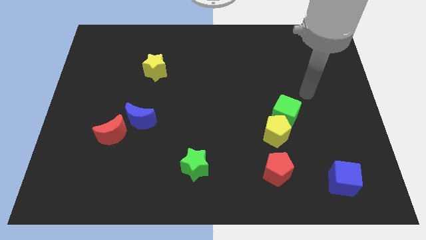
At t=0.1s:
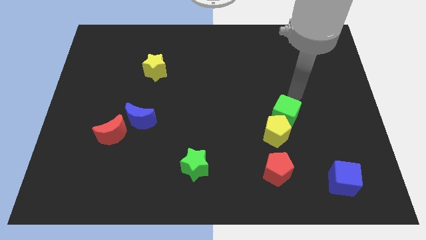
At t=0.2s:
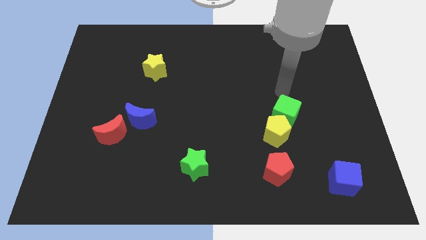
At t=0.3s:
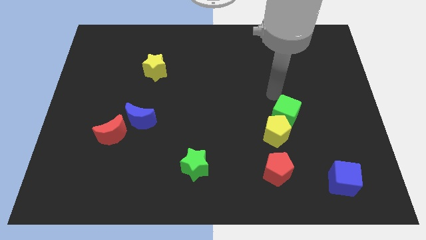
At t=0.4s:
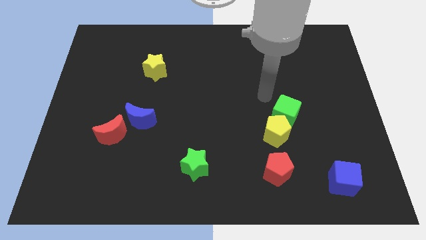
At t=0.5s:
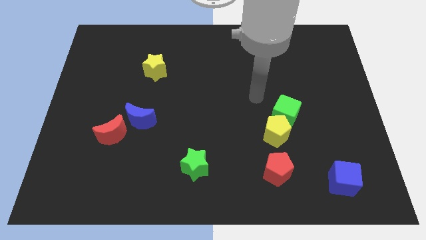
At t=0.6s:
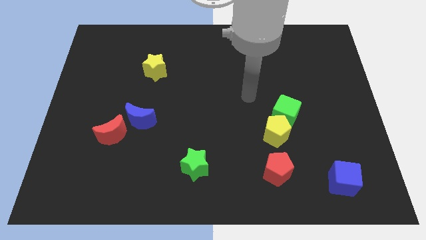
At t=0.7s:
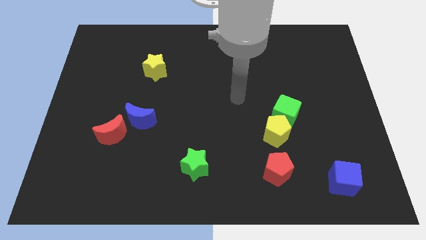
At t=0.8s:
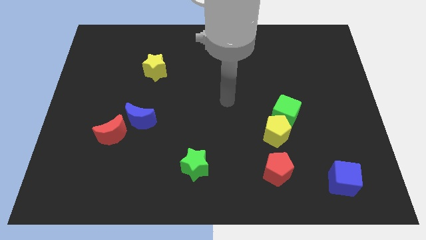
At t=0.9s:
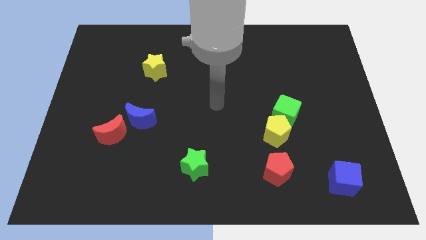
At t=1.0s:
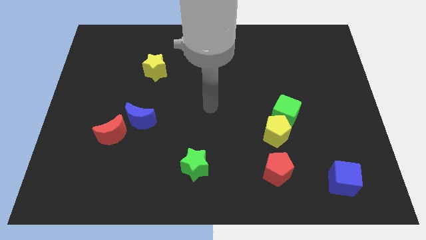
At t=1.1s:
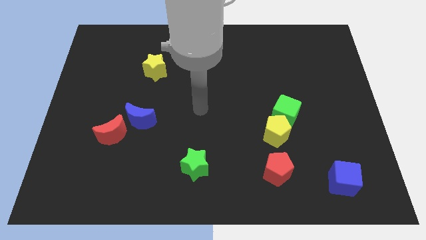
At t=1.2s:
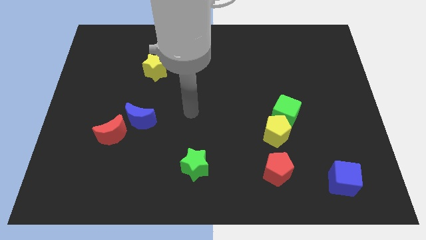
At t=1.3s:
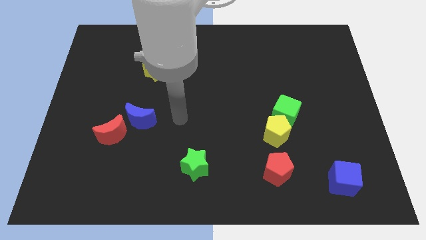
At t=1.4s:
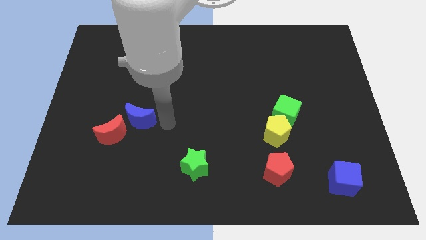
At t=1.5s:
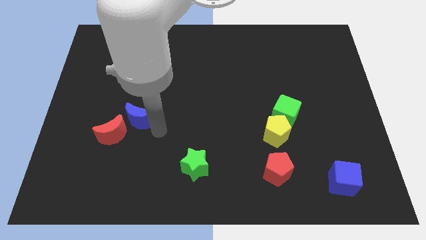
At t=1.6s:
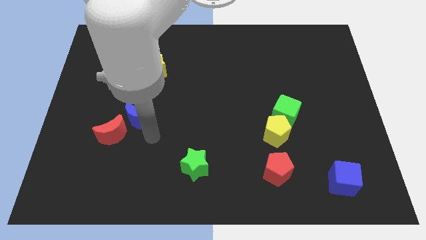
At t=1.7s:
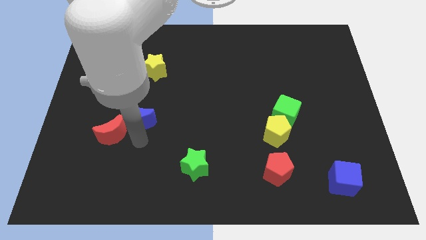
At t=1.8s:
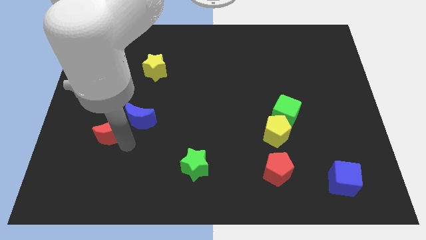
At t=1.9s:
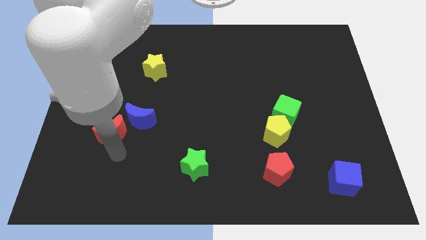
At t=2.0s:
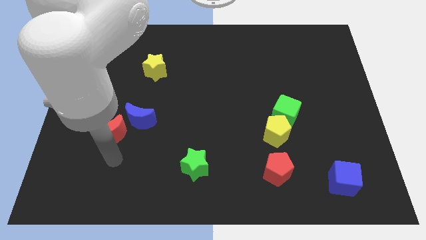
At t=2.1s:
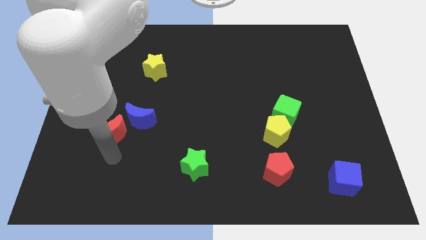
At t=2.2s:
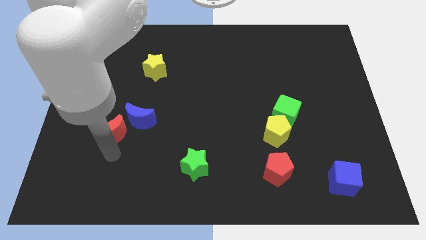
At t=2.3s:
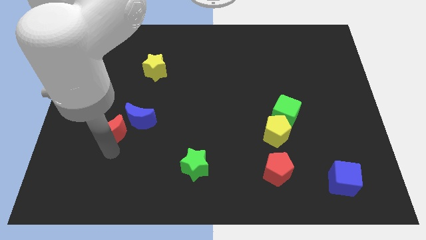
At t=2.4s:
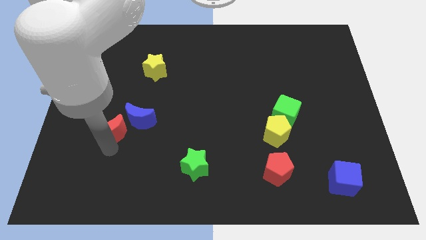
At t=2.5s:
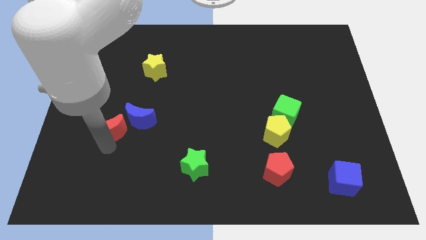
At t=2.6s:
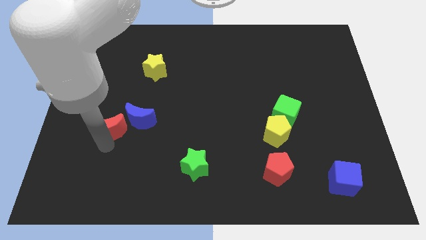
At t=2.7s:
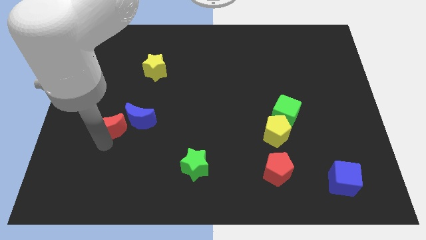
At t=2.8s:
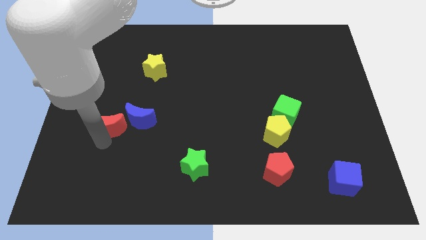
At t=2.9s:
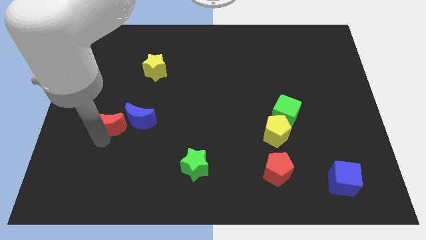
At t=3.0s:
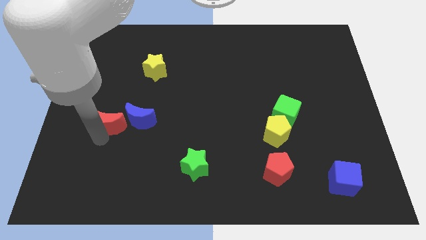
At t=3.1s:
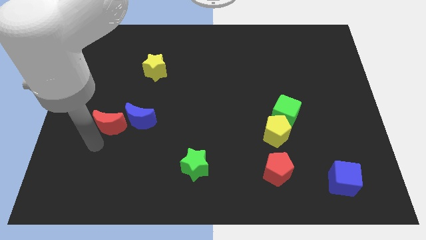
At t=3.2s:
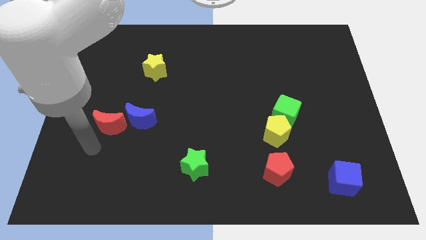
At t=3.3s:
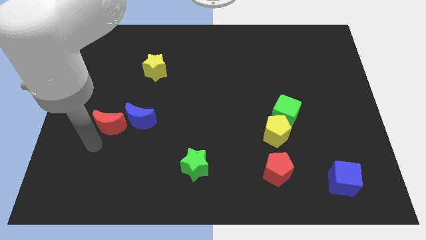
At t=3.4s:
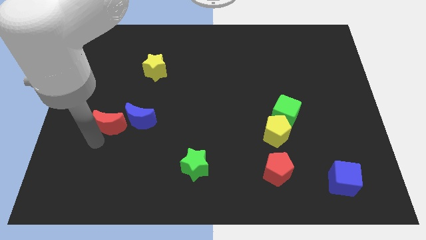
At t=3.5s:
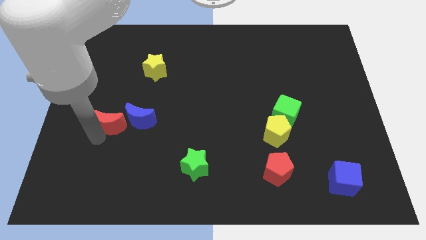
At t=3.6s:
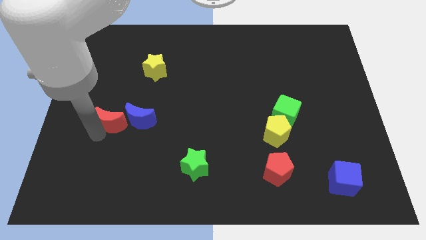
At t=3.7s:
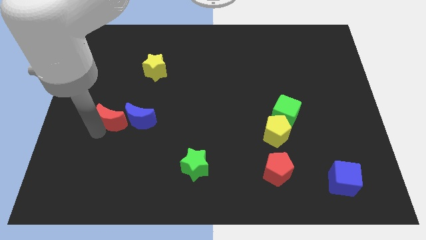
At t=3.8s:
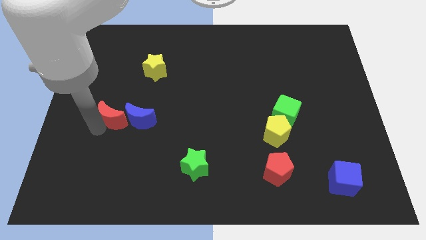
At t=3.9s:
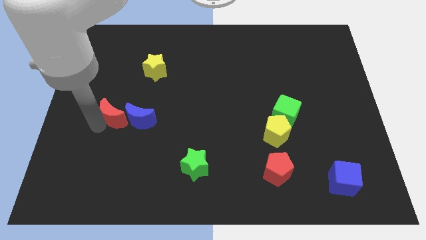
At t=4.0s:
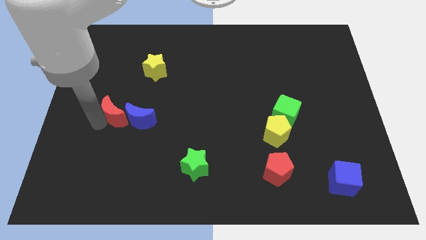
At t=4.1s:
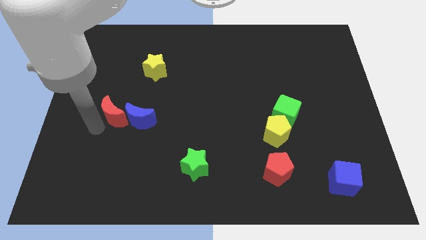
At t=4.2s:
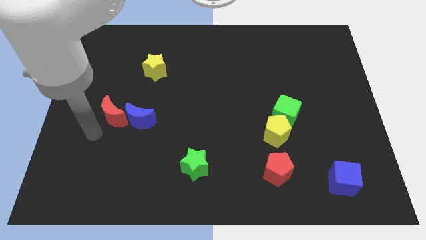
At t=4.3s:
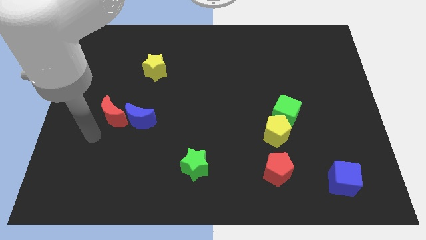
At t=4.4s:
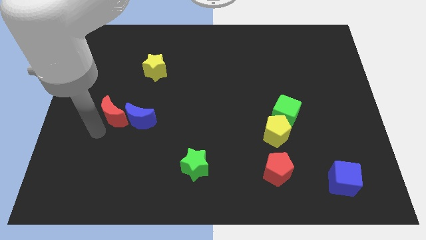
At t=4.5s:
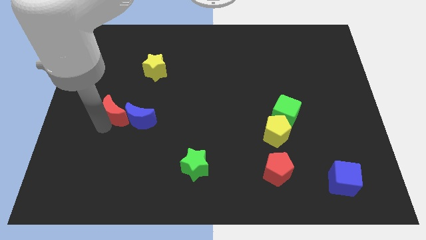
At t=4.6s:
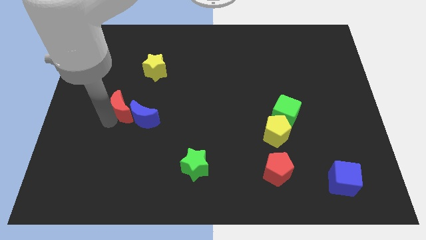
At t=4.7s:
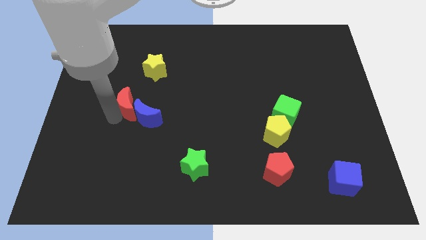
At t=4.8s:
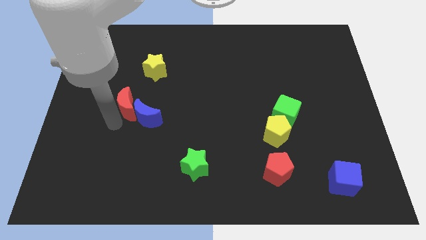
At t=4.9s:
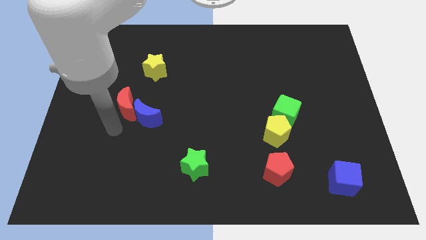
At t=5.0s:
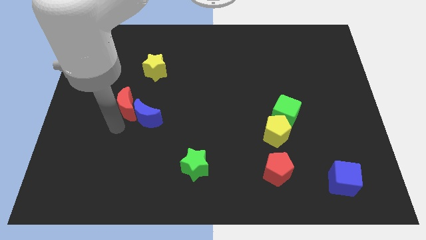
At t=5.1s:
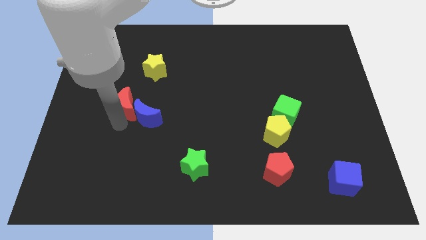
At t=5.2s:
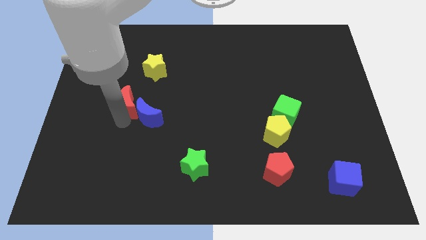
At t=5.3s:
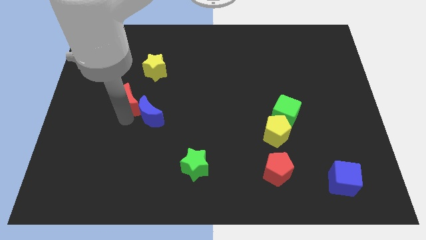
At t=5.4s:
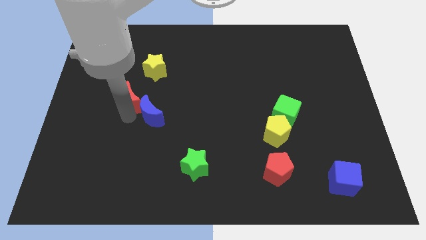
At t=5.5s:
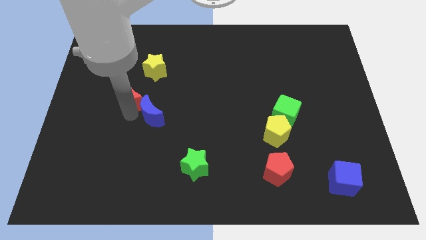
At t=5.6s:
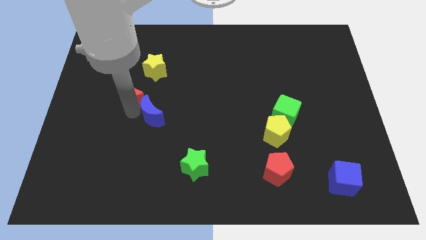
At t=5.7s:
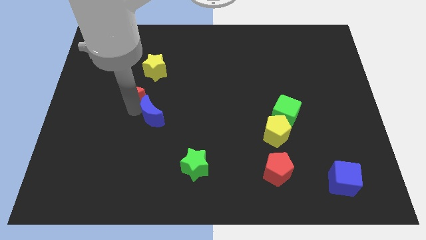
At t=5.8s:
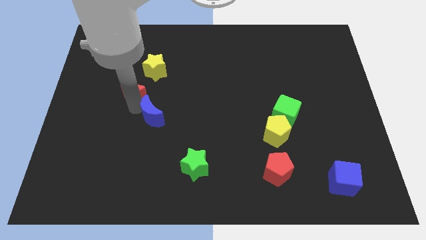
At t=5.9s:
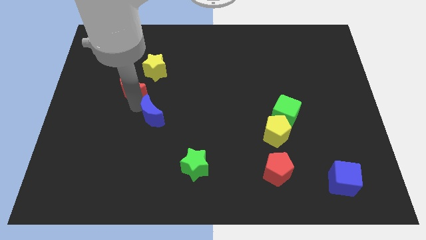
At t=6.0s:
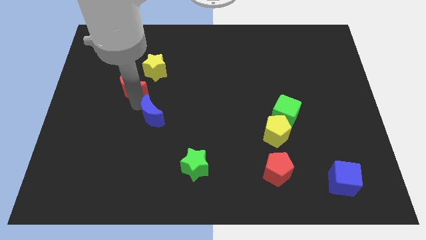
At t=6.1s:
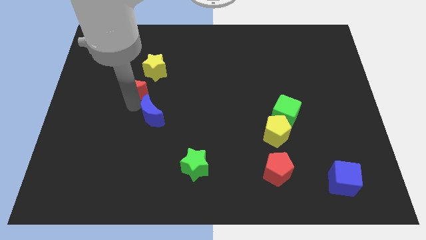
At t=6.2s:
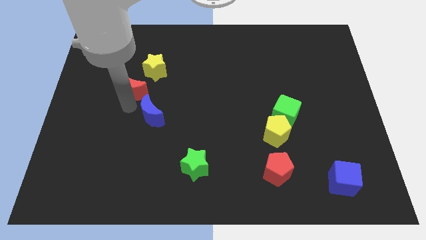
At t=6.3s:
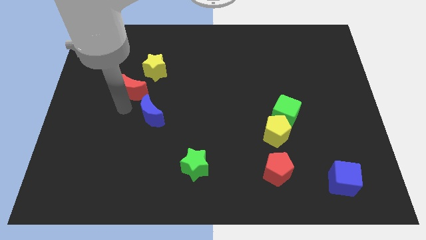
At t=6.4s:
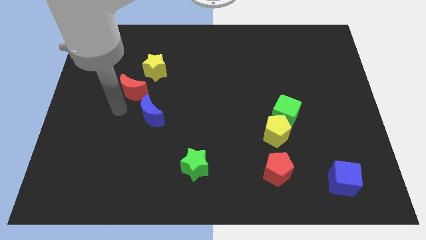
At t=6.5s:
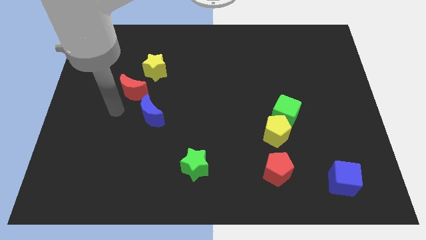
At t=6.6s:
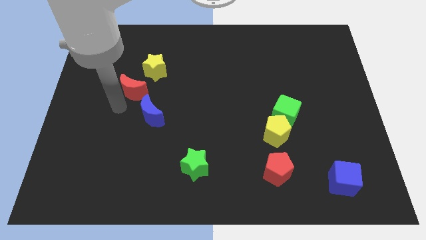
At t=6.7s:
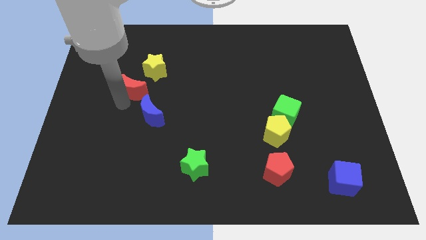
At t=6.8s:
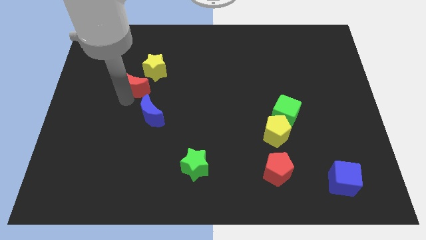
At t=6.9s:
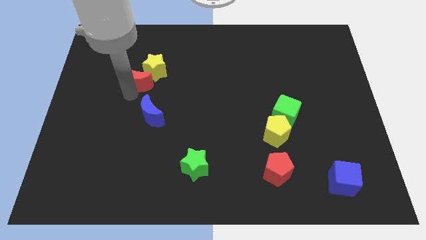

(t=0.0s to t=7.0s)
slide the red moon close to the yellow star
